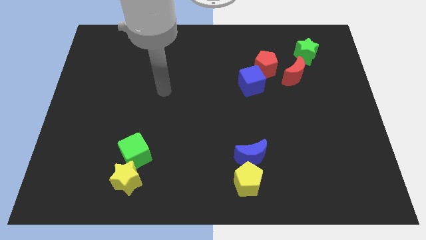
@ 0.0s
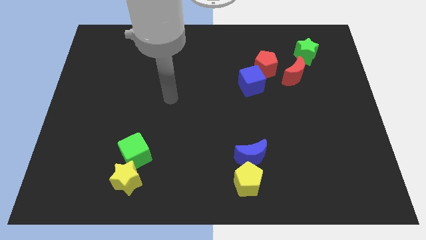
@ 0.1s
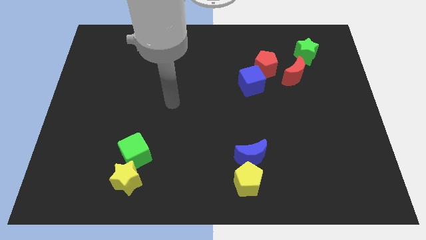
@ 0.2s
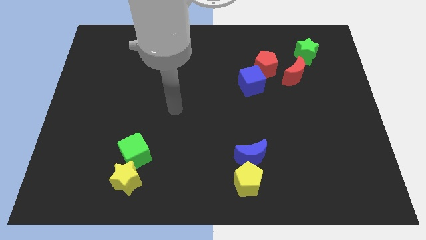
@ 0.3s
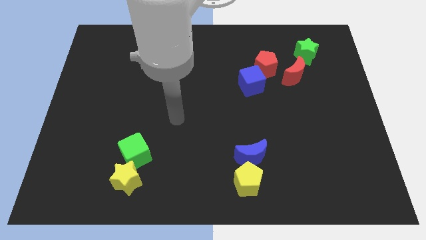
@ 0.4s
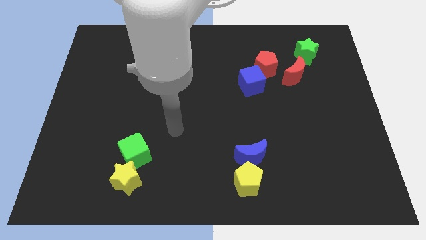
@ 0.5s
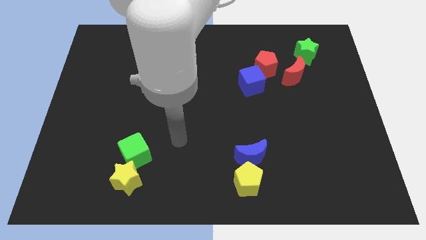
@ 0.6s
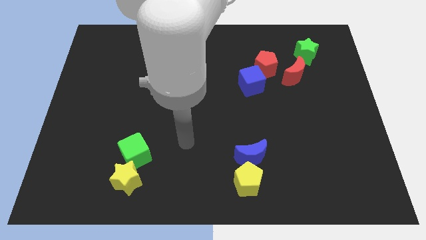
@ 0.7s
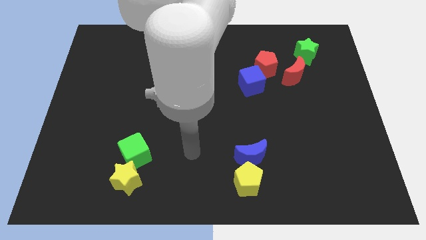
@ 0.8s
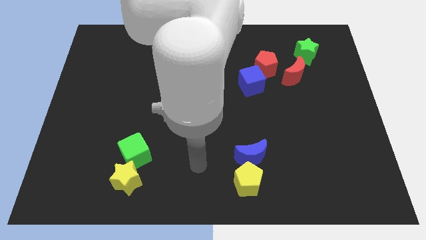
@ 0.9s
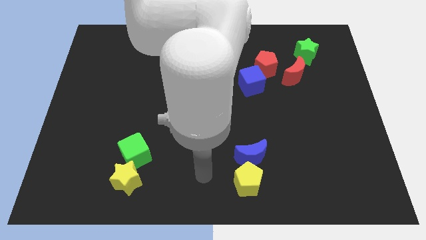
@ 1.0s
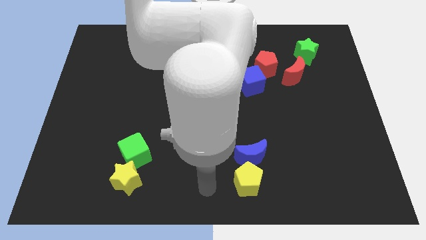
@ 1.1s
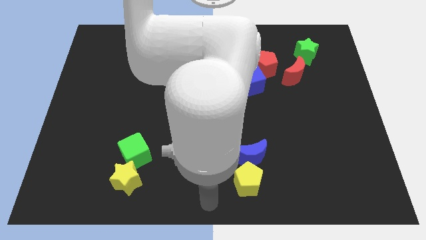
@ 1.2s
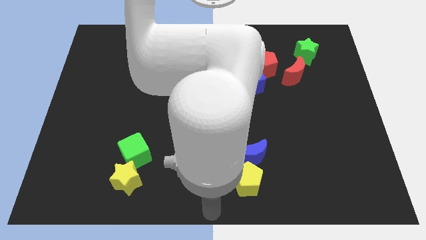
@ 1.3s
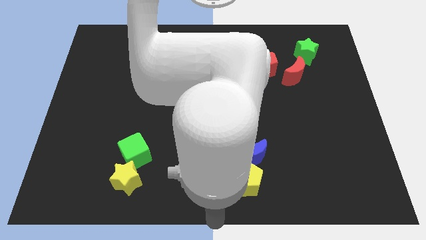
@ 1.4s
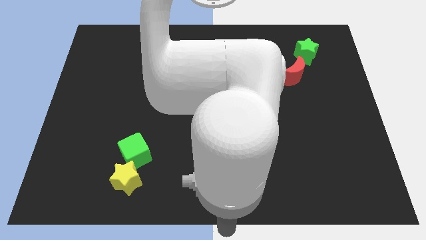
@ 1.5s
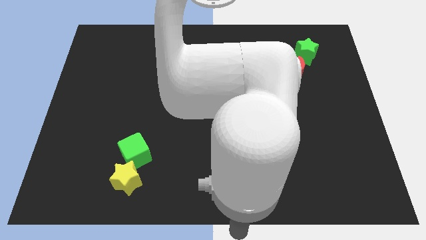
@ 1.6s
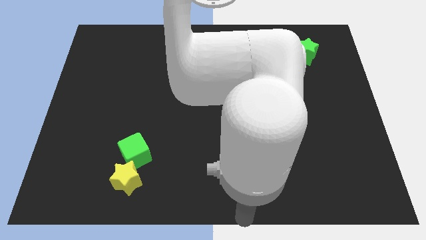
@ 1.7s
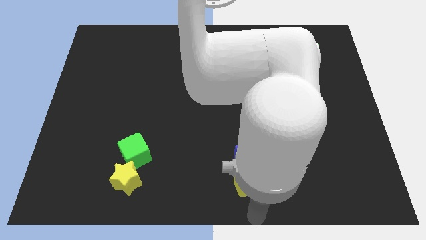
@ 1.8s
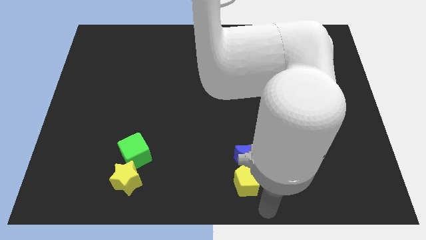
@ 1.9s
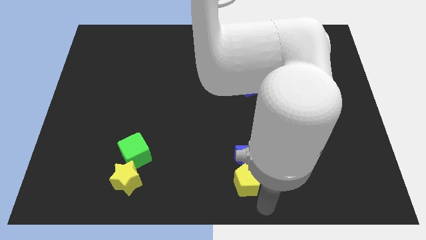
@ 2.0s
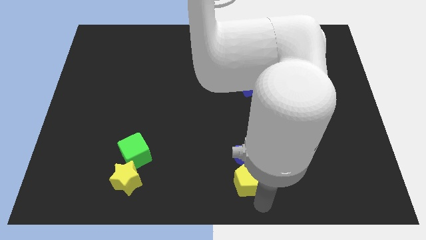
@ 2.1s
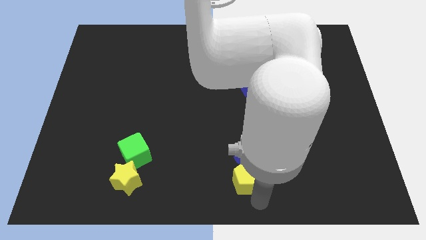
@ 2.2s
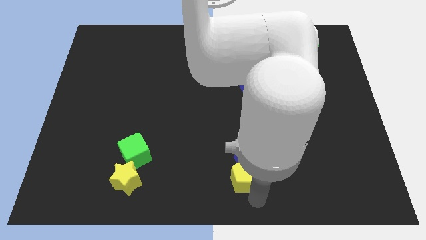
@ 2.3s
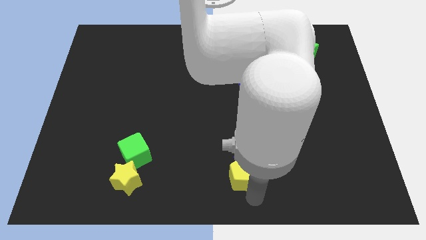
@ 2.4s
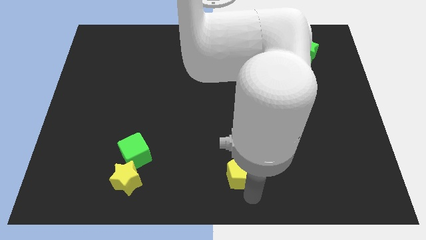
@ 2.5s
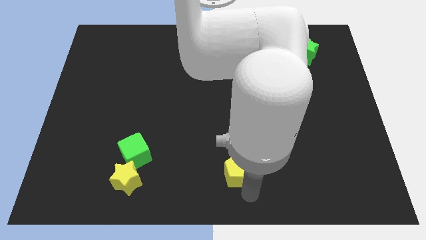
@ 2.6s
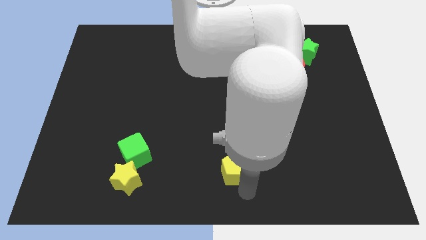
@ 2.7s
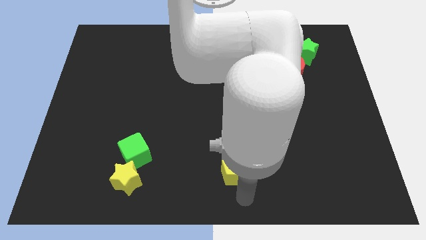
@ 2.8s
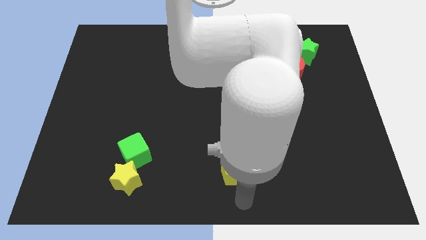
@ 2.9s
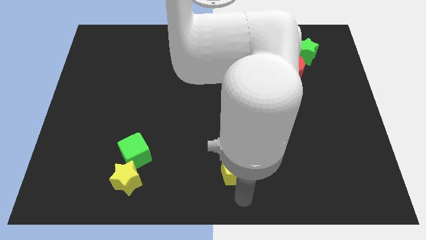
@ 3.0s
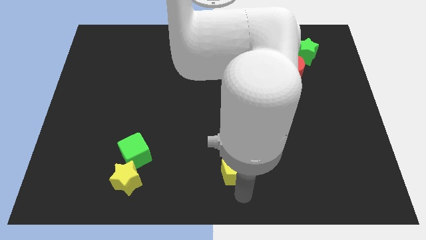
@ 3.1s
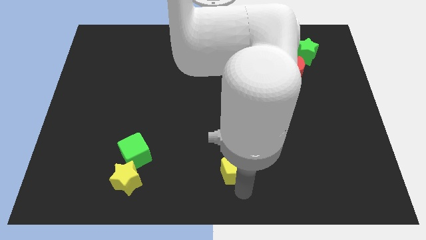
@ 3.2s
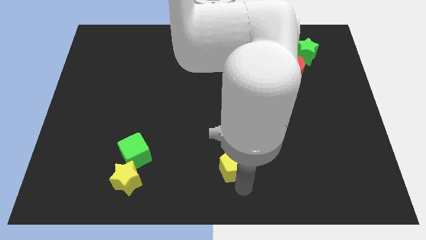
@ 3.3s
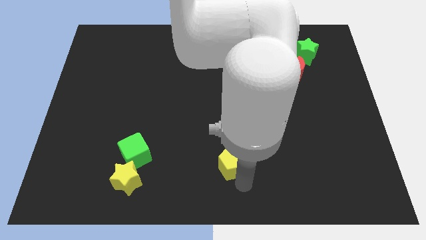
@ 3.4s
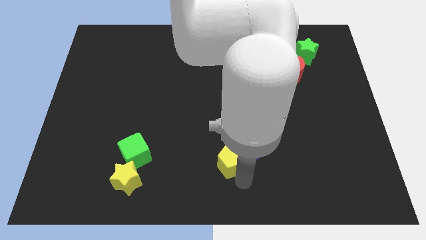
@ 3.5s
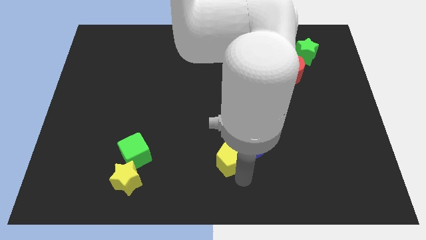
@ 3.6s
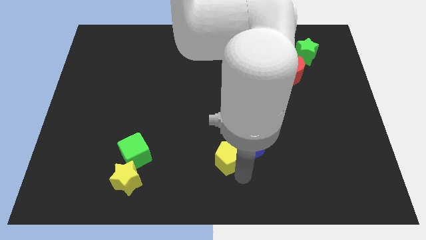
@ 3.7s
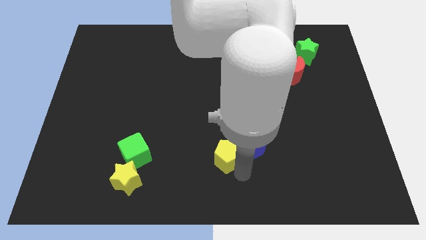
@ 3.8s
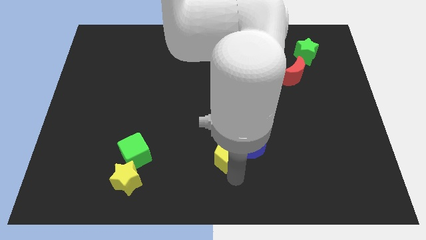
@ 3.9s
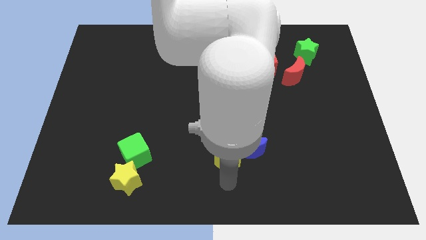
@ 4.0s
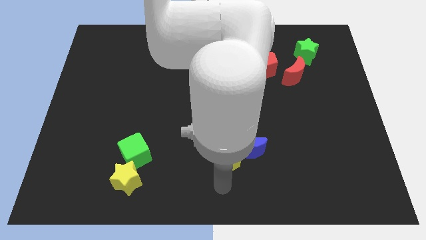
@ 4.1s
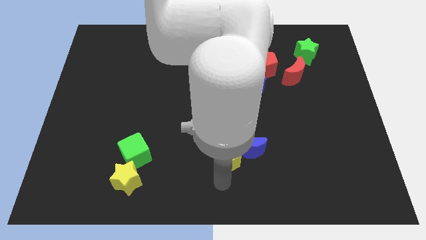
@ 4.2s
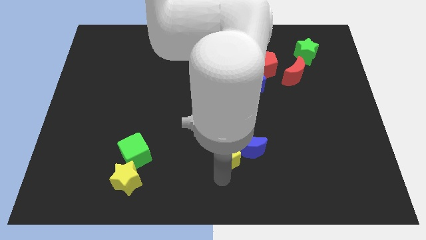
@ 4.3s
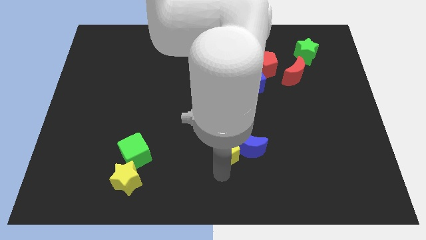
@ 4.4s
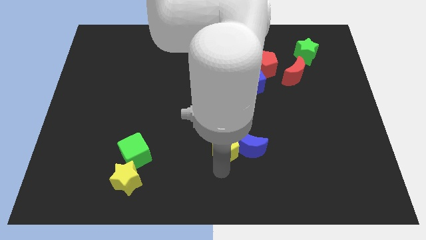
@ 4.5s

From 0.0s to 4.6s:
move the yellow pentagon a bit upwards

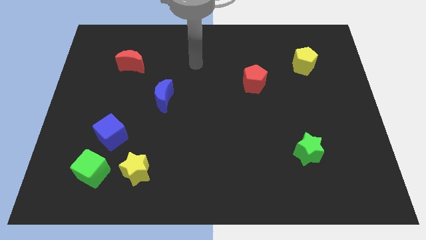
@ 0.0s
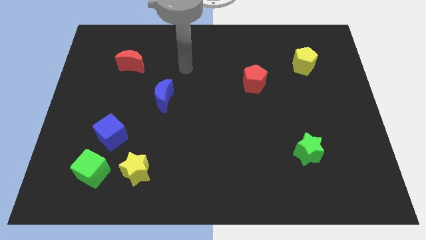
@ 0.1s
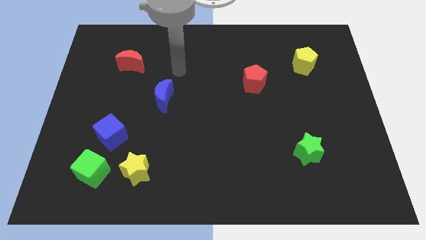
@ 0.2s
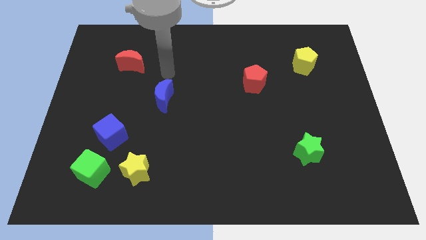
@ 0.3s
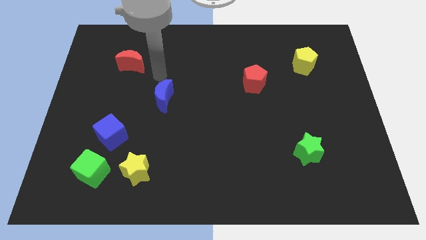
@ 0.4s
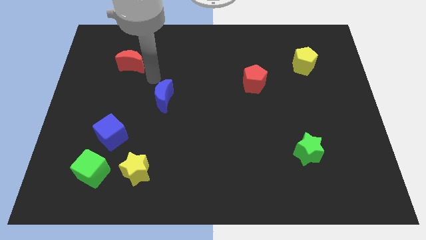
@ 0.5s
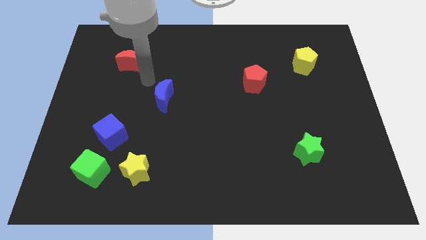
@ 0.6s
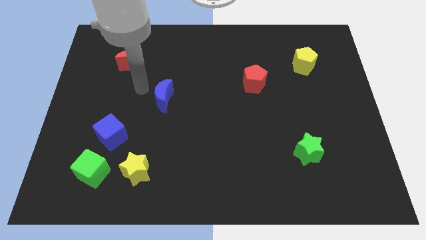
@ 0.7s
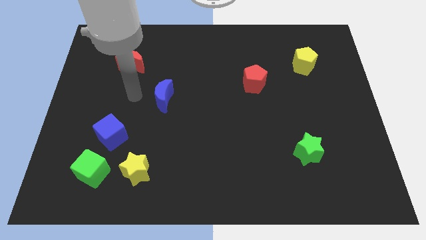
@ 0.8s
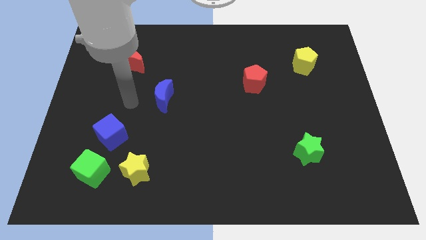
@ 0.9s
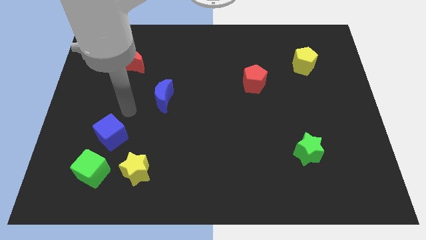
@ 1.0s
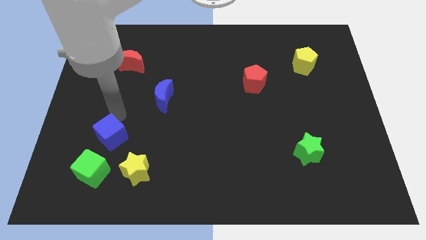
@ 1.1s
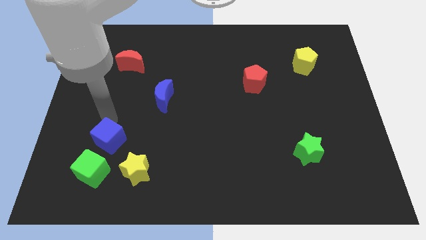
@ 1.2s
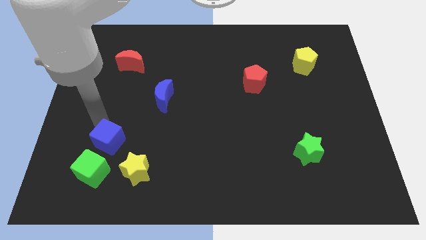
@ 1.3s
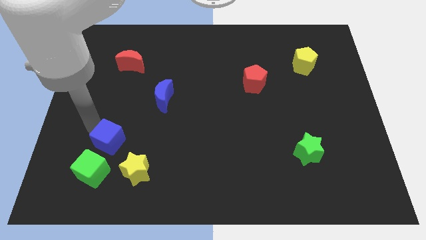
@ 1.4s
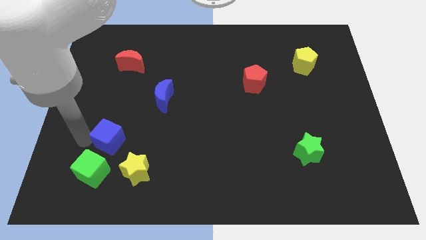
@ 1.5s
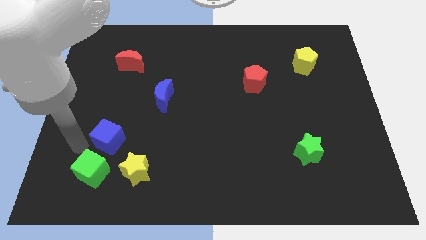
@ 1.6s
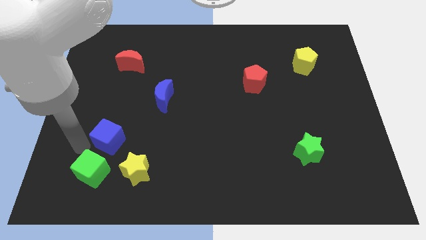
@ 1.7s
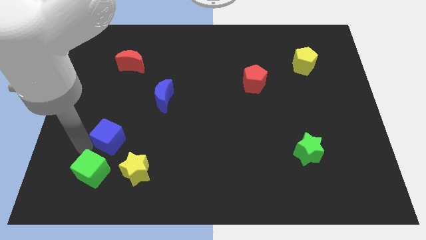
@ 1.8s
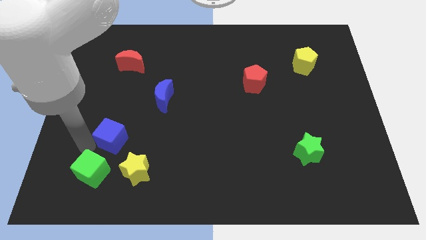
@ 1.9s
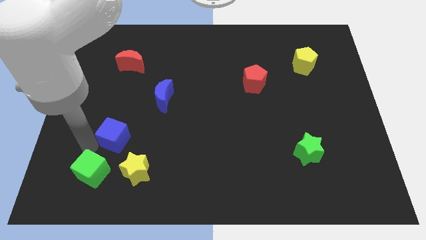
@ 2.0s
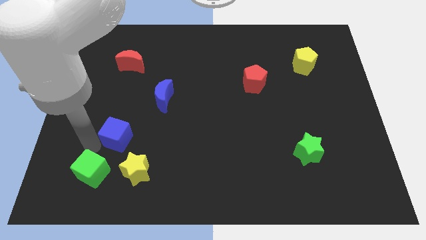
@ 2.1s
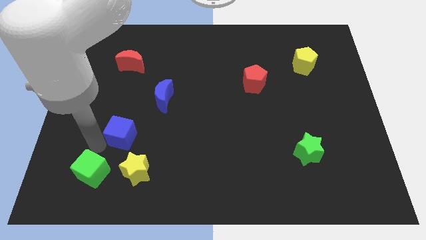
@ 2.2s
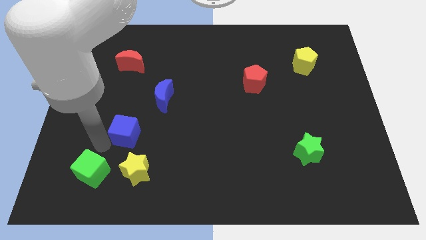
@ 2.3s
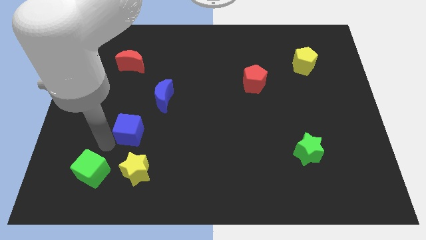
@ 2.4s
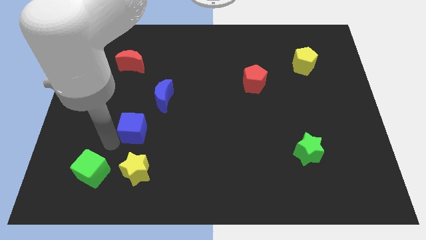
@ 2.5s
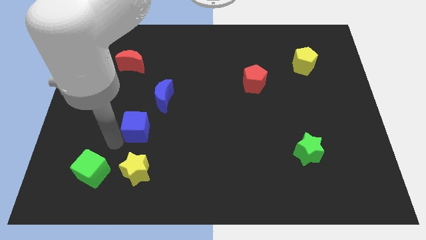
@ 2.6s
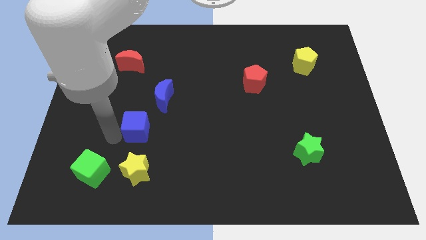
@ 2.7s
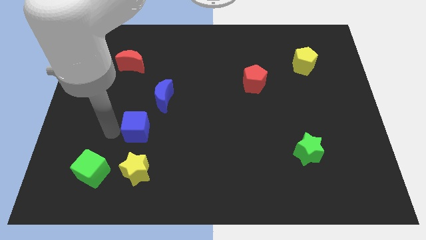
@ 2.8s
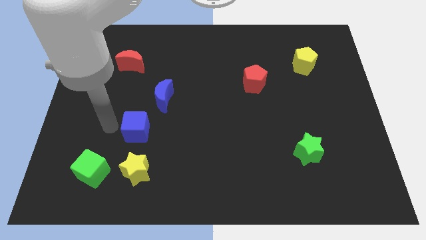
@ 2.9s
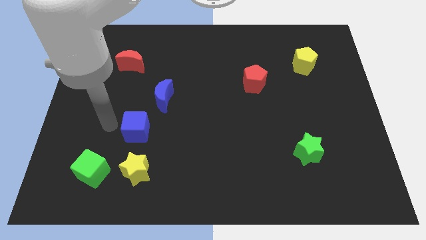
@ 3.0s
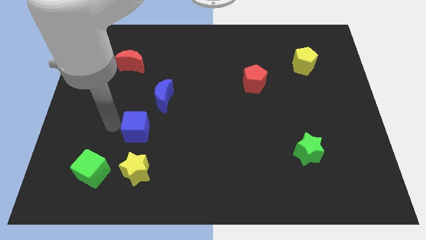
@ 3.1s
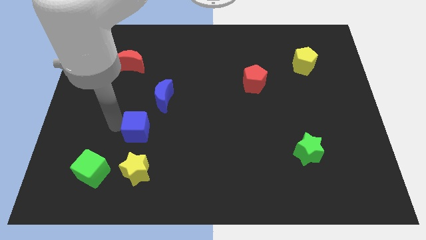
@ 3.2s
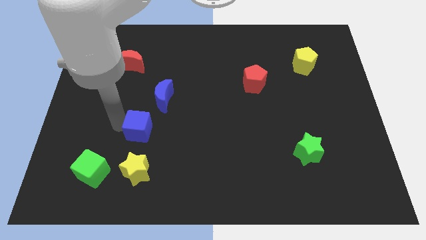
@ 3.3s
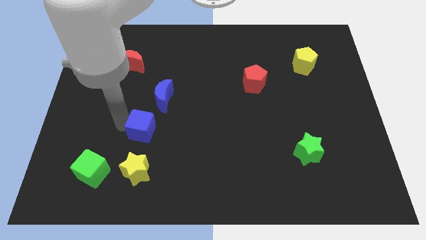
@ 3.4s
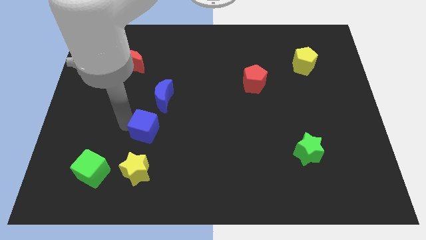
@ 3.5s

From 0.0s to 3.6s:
push the blue cube right slightly
